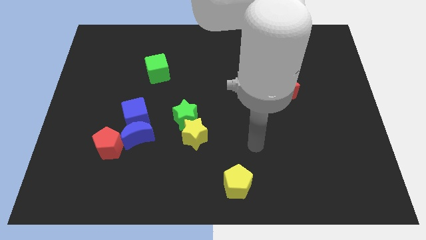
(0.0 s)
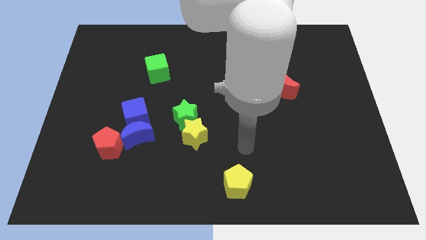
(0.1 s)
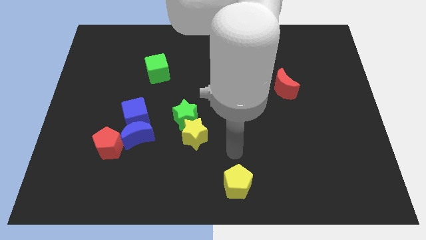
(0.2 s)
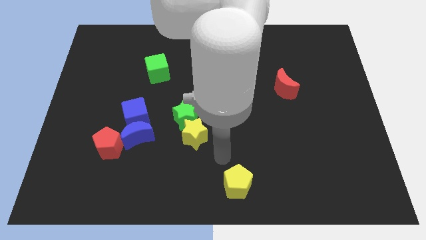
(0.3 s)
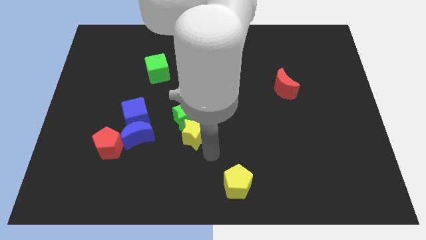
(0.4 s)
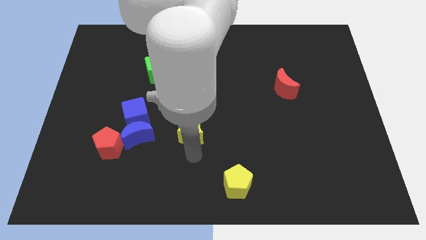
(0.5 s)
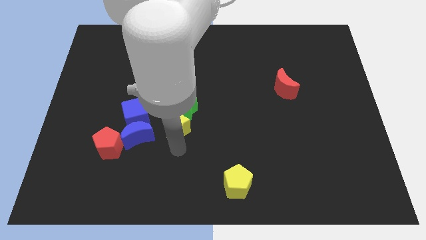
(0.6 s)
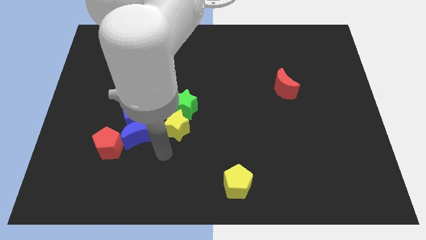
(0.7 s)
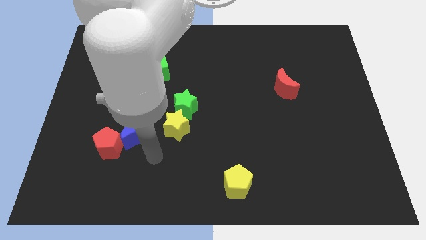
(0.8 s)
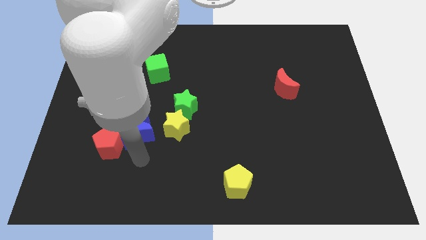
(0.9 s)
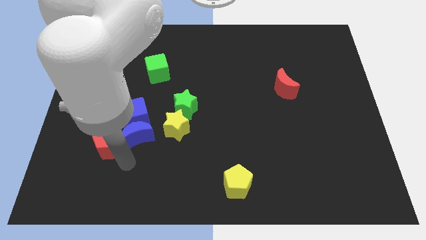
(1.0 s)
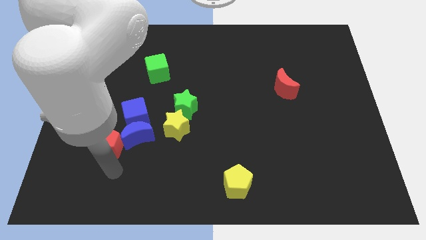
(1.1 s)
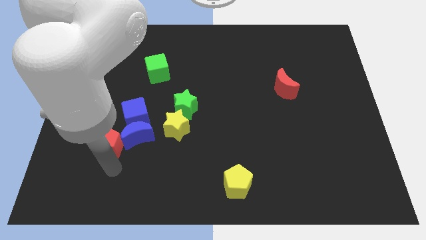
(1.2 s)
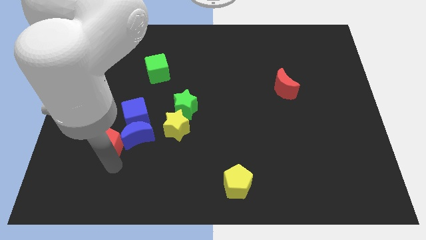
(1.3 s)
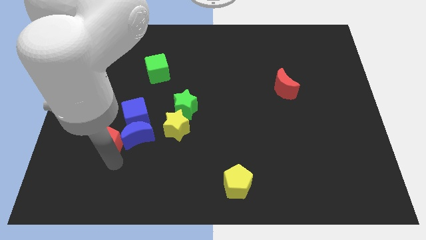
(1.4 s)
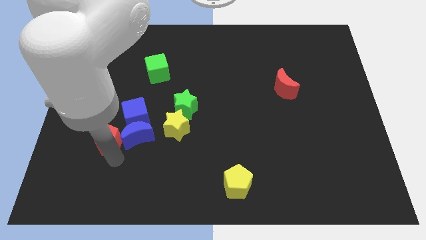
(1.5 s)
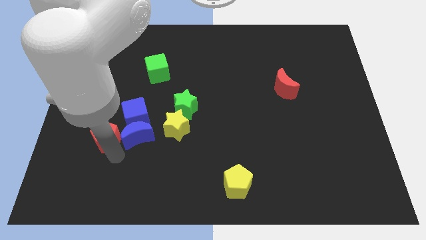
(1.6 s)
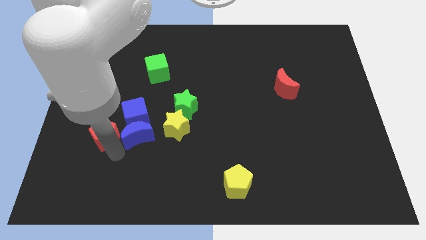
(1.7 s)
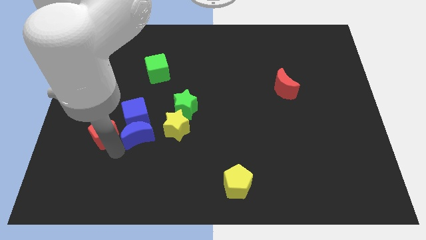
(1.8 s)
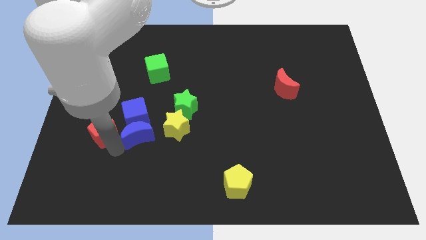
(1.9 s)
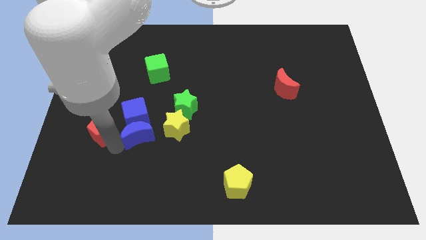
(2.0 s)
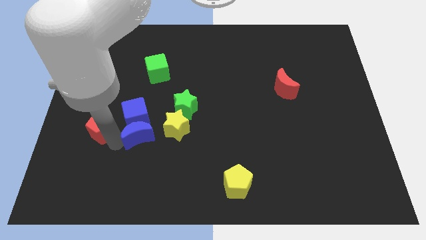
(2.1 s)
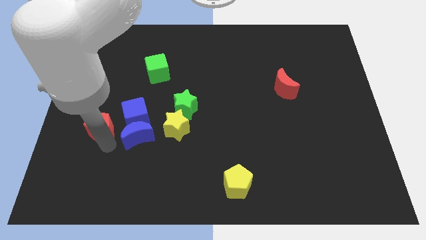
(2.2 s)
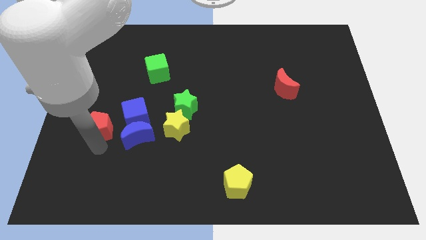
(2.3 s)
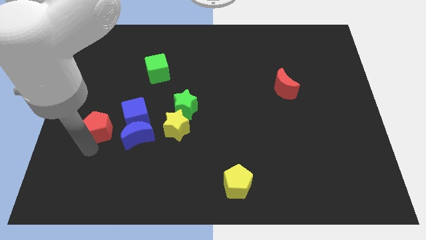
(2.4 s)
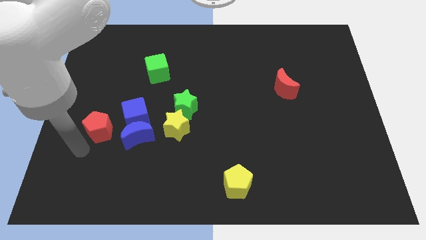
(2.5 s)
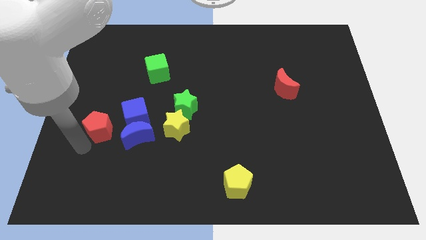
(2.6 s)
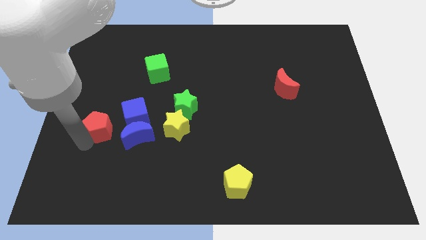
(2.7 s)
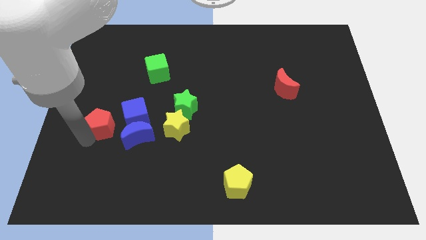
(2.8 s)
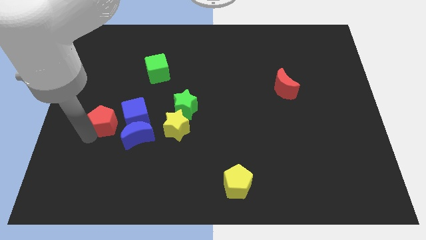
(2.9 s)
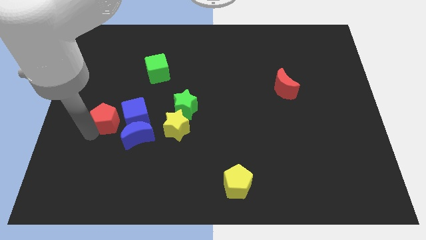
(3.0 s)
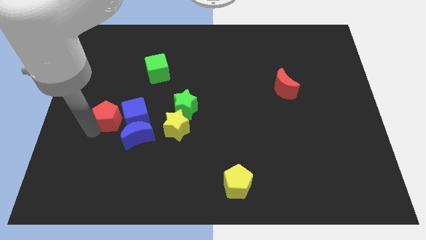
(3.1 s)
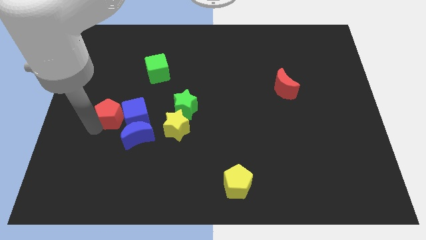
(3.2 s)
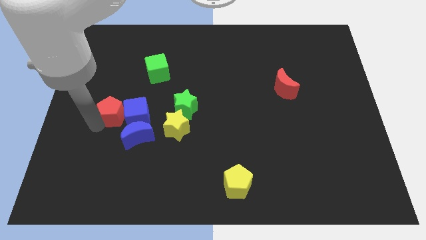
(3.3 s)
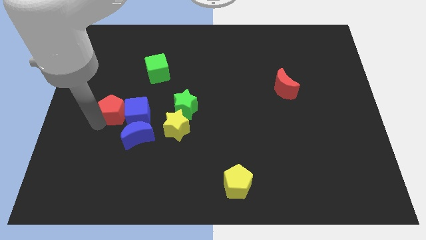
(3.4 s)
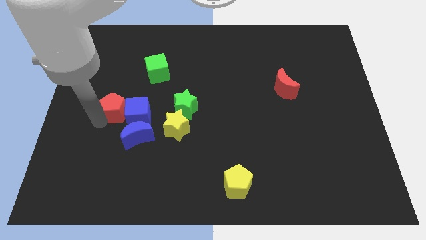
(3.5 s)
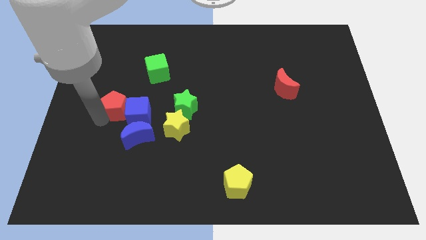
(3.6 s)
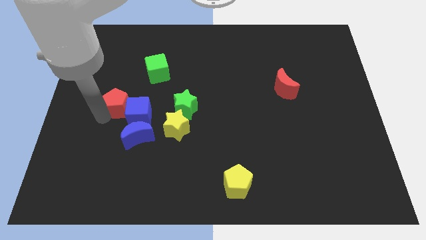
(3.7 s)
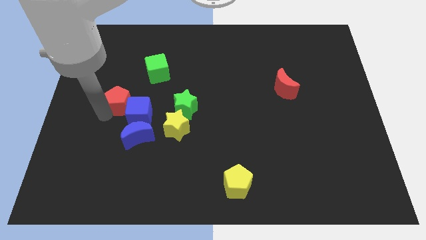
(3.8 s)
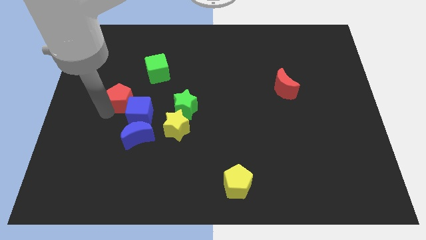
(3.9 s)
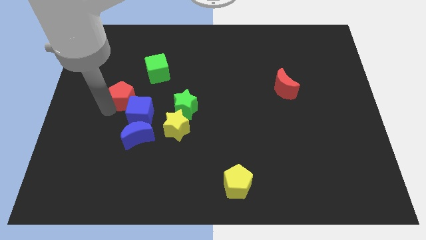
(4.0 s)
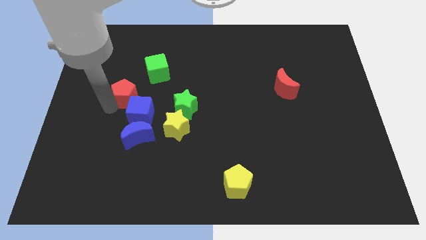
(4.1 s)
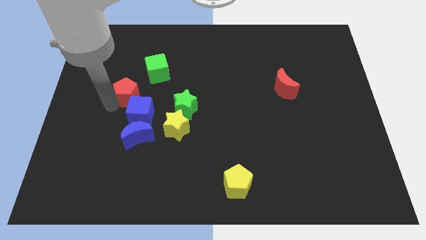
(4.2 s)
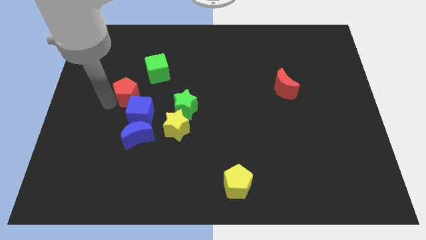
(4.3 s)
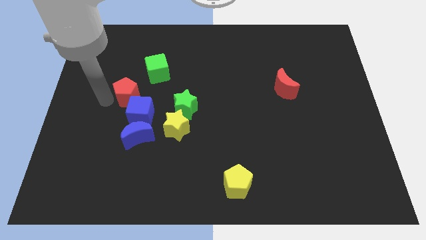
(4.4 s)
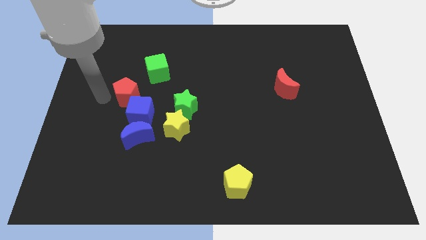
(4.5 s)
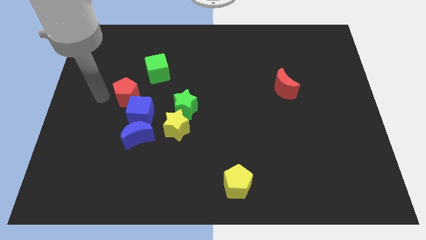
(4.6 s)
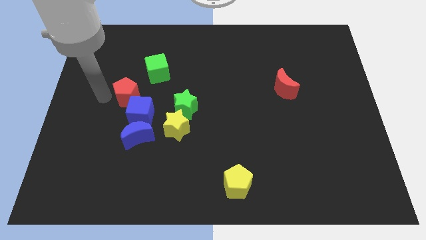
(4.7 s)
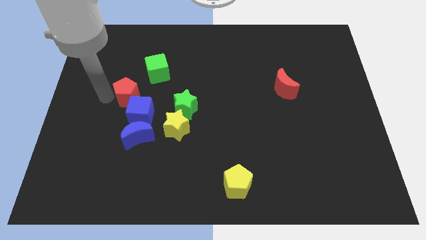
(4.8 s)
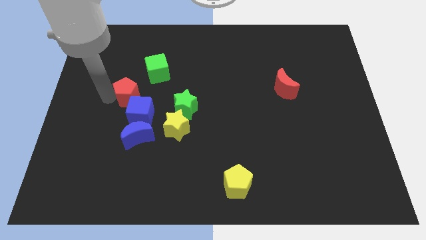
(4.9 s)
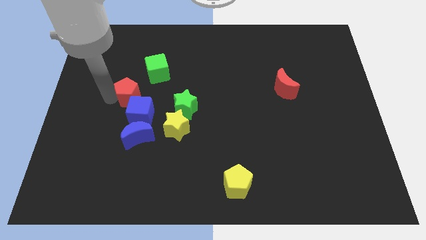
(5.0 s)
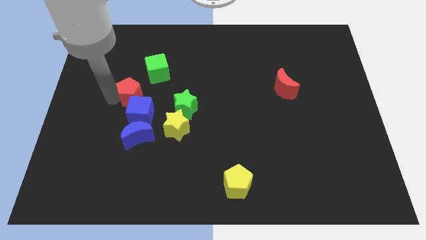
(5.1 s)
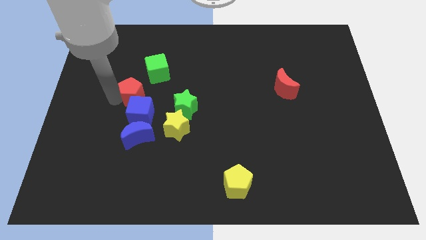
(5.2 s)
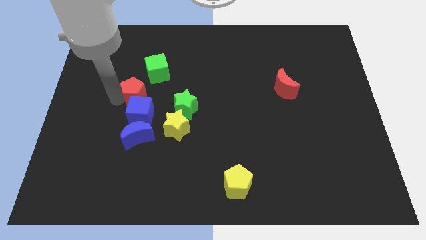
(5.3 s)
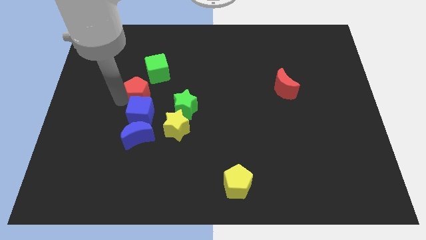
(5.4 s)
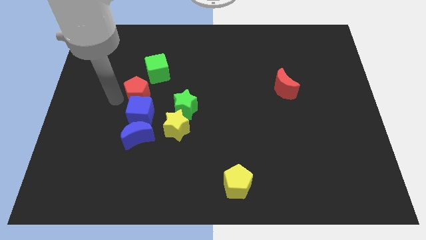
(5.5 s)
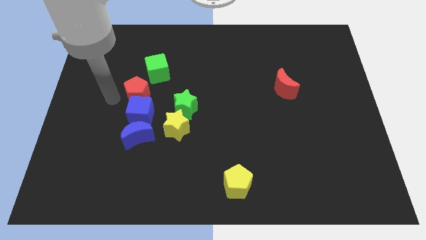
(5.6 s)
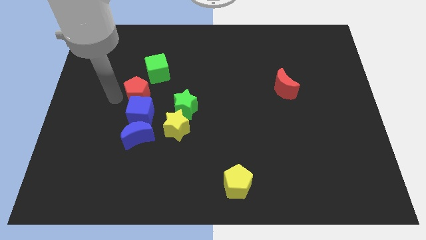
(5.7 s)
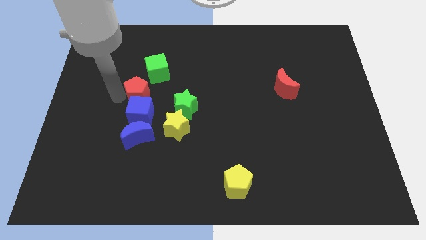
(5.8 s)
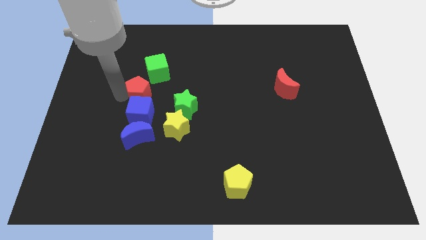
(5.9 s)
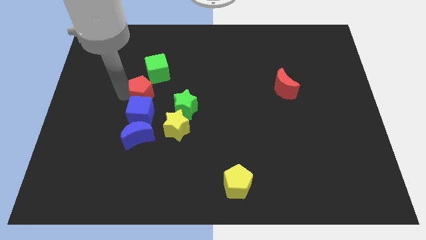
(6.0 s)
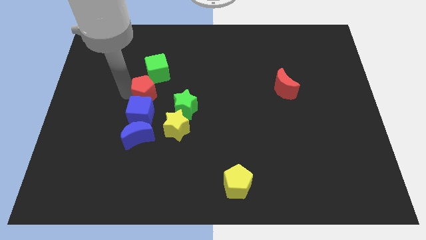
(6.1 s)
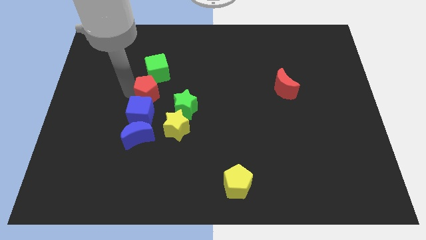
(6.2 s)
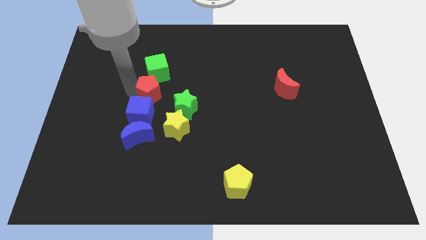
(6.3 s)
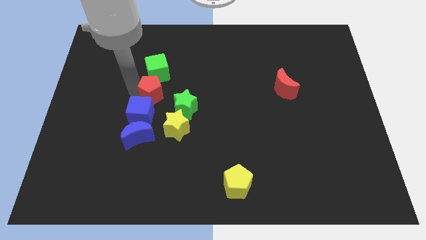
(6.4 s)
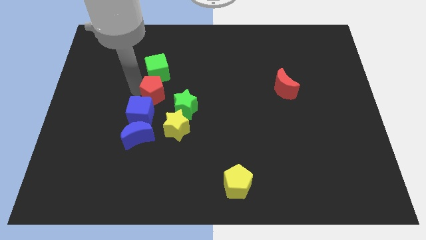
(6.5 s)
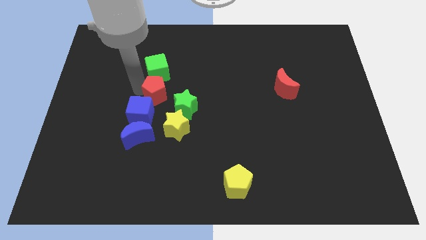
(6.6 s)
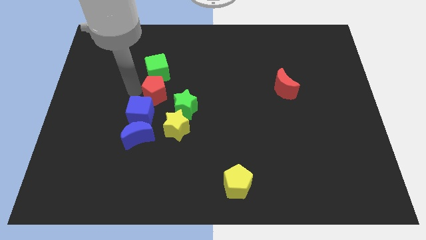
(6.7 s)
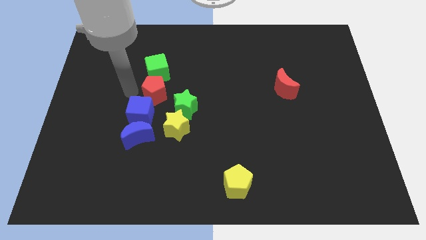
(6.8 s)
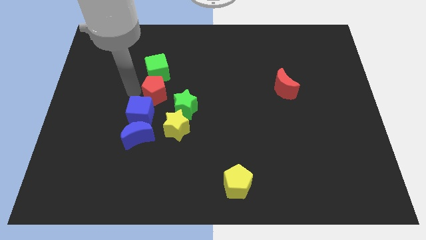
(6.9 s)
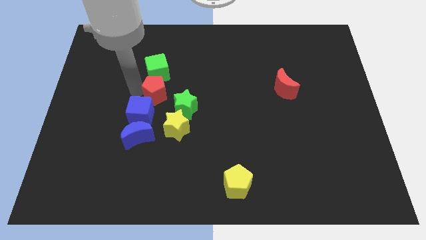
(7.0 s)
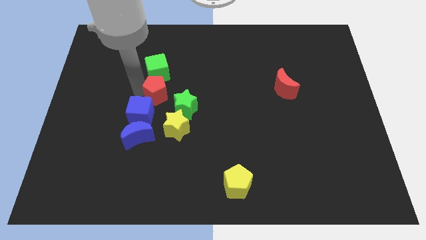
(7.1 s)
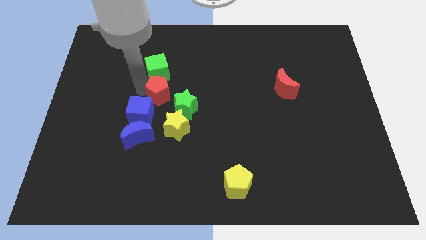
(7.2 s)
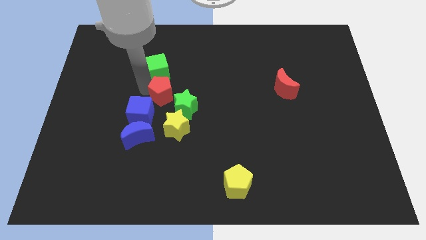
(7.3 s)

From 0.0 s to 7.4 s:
push the red pentagon to the center
